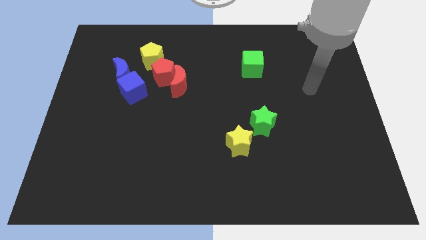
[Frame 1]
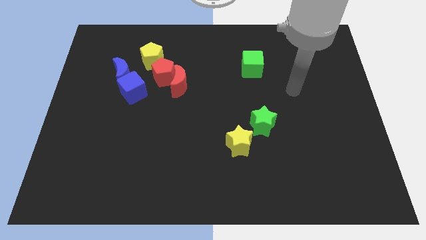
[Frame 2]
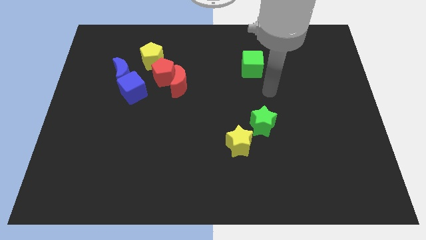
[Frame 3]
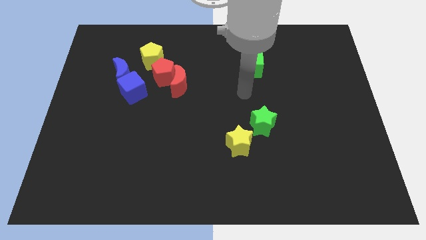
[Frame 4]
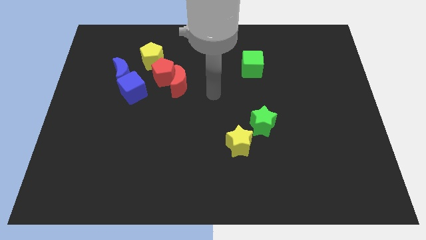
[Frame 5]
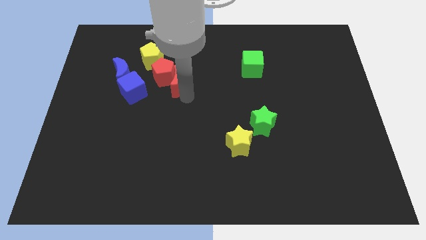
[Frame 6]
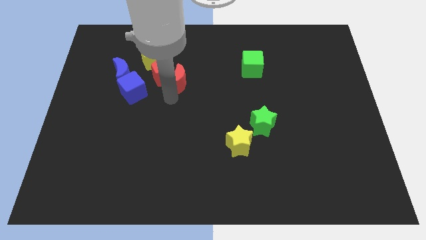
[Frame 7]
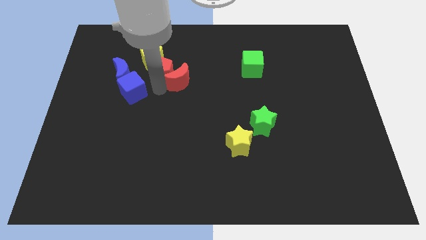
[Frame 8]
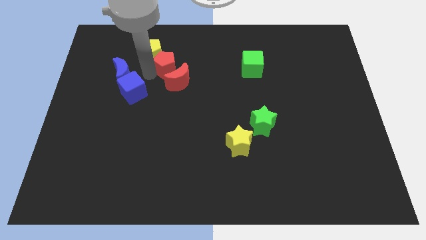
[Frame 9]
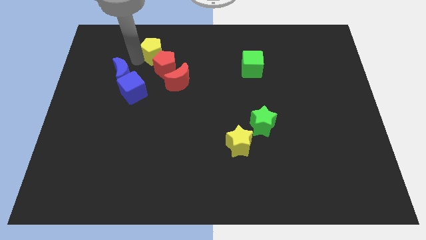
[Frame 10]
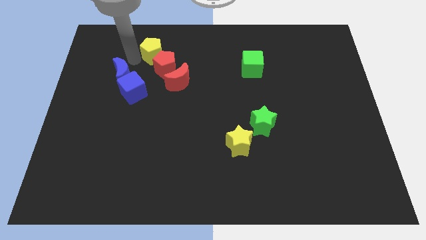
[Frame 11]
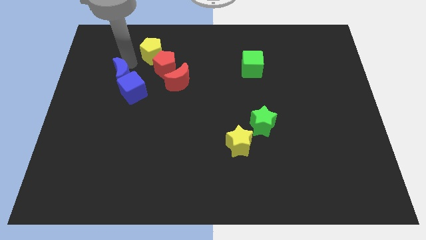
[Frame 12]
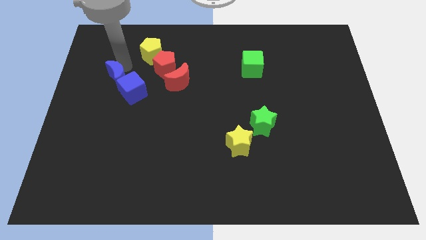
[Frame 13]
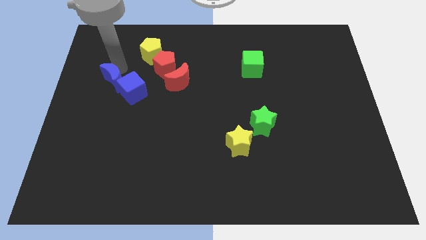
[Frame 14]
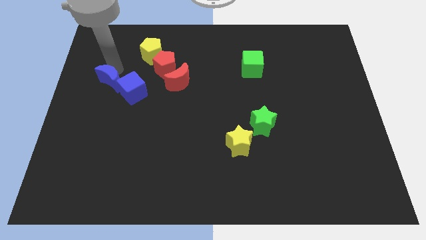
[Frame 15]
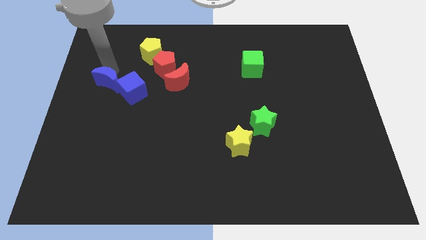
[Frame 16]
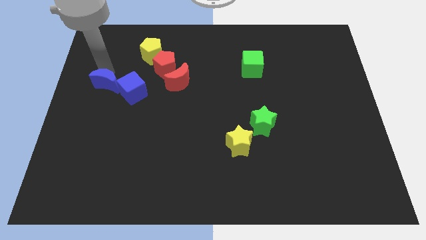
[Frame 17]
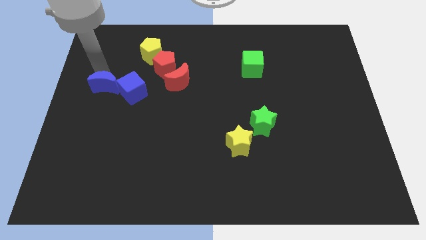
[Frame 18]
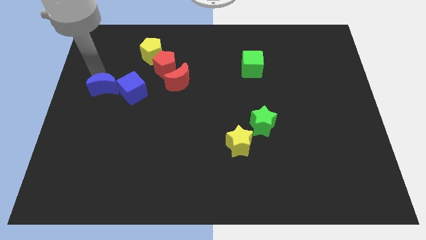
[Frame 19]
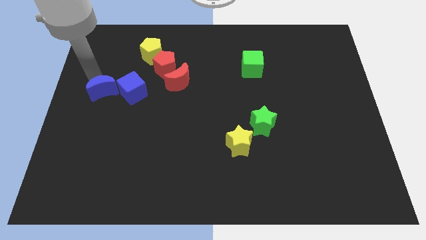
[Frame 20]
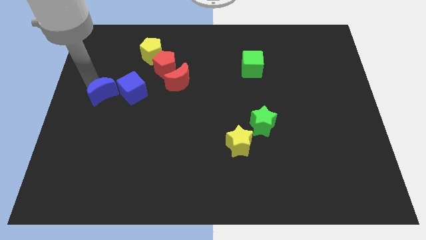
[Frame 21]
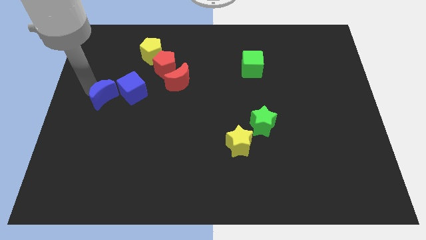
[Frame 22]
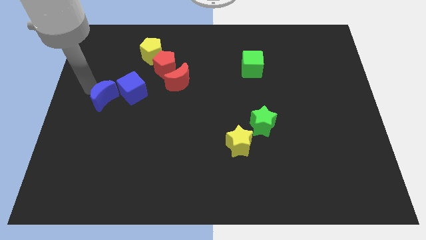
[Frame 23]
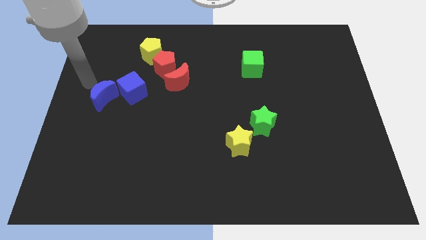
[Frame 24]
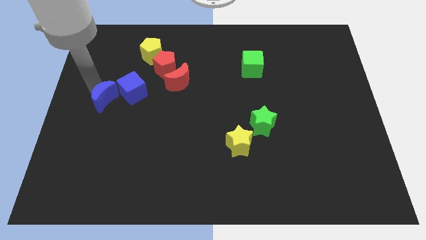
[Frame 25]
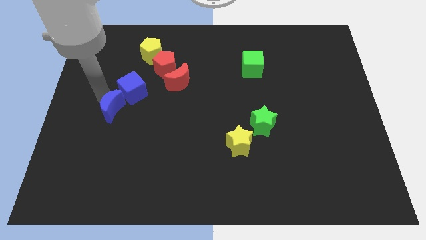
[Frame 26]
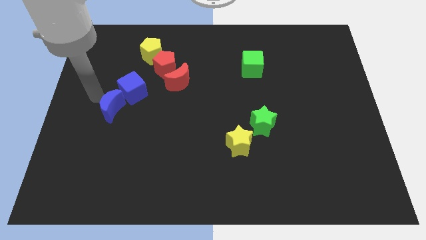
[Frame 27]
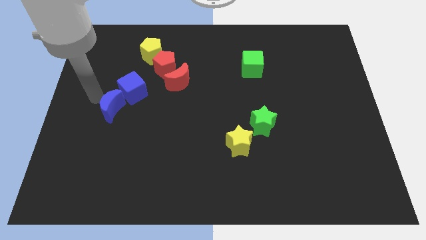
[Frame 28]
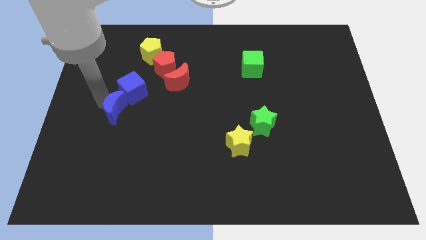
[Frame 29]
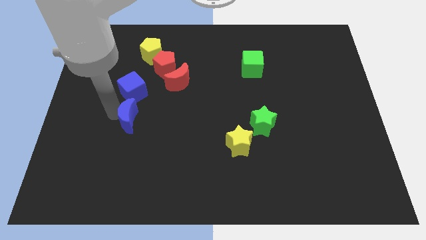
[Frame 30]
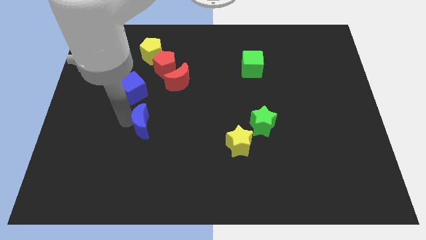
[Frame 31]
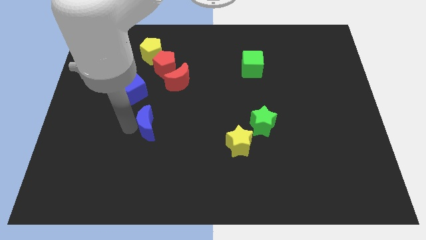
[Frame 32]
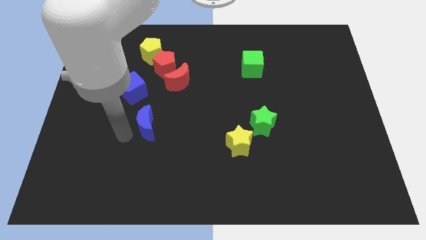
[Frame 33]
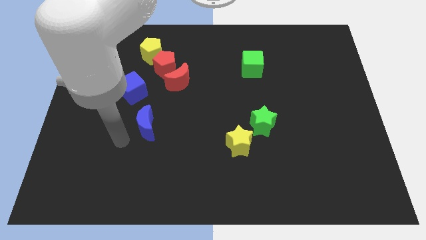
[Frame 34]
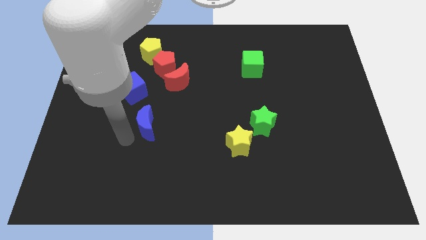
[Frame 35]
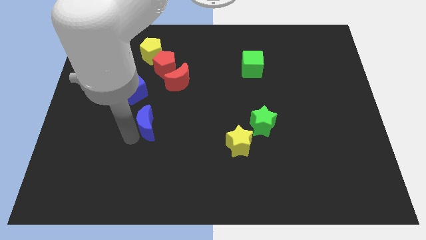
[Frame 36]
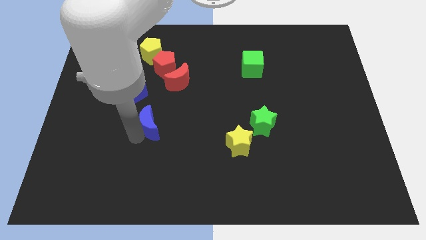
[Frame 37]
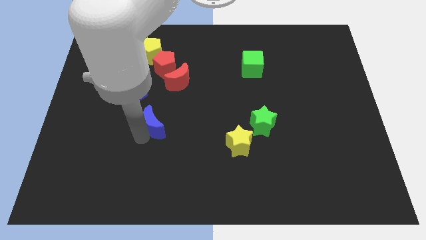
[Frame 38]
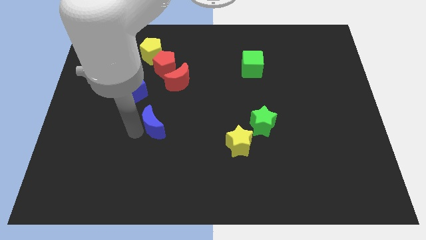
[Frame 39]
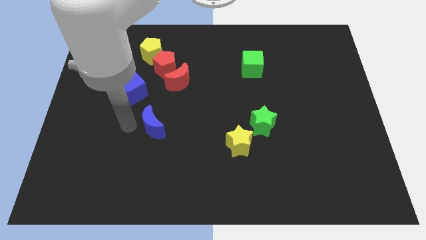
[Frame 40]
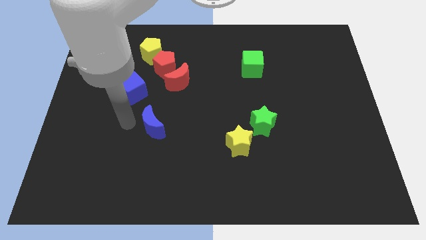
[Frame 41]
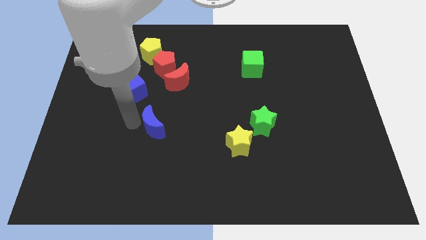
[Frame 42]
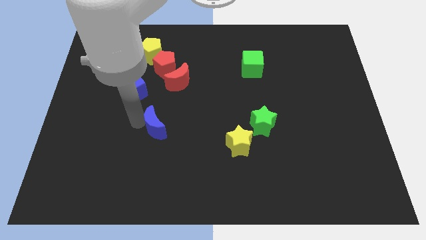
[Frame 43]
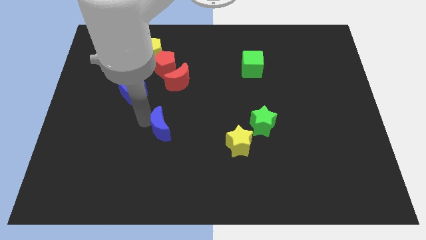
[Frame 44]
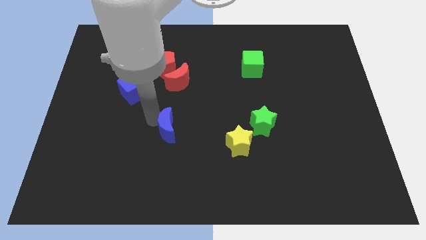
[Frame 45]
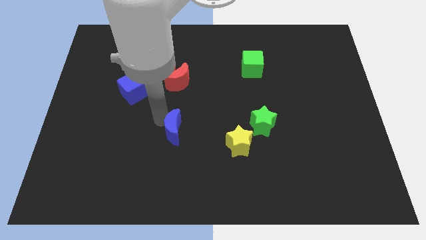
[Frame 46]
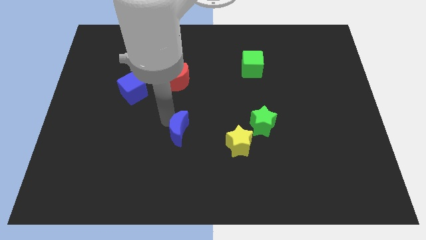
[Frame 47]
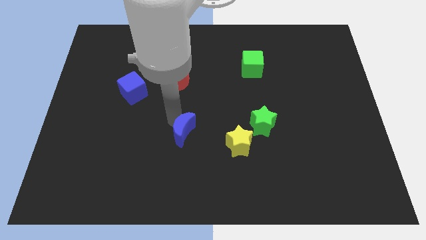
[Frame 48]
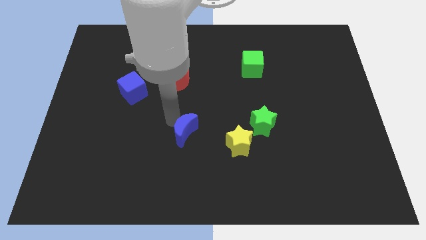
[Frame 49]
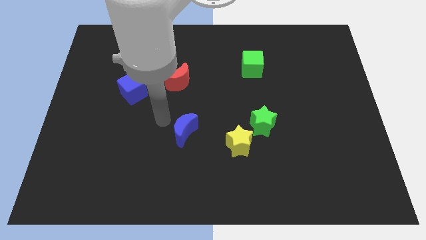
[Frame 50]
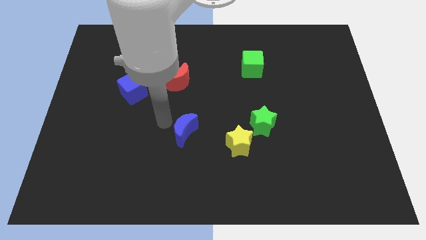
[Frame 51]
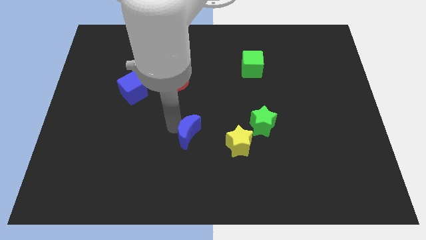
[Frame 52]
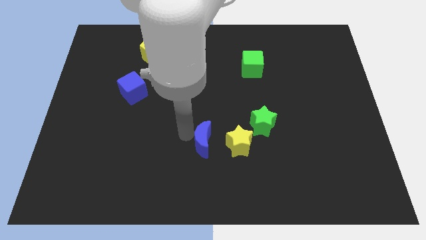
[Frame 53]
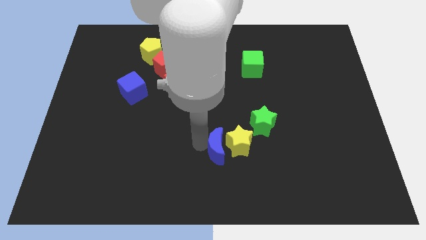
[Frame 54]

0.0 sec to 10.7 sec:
put the blue moon next to the yellow star

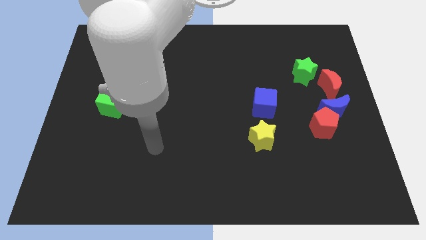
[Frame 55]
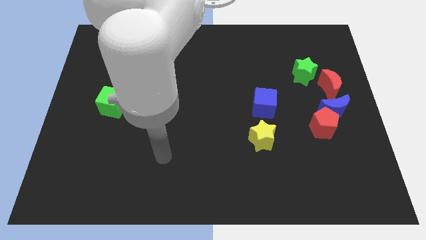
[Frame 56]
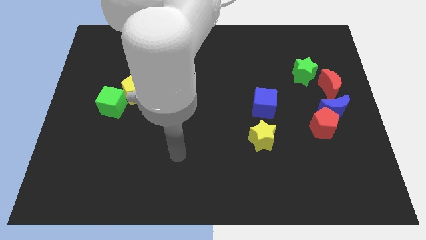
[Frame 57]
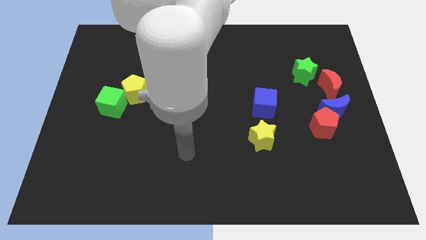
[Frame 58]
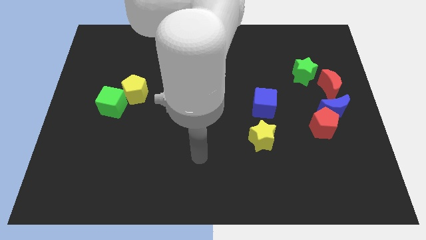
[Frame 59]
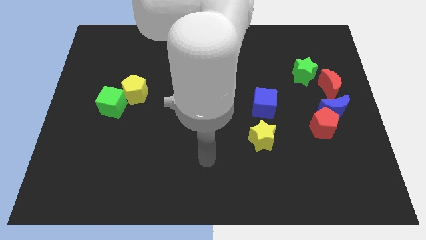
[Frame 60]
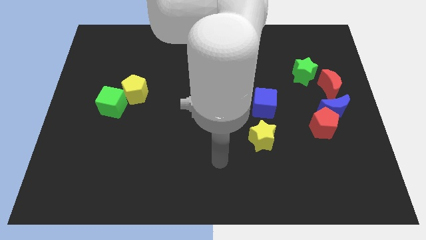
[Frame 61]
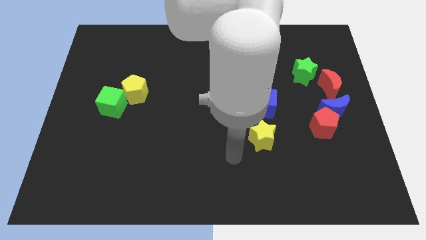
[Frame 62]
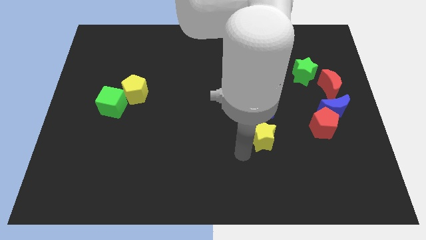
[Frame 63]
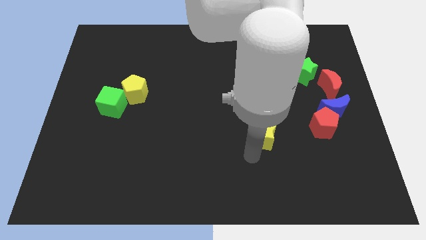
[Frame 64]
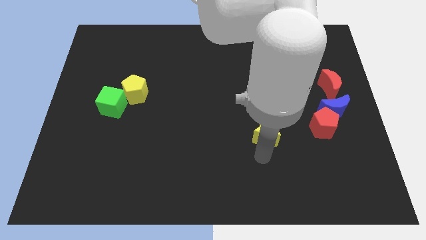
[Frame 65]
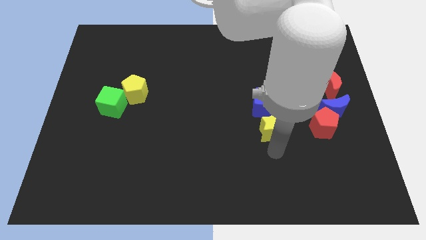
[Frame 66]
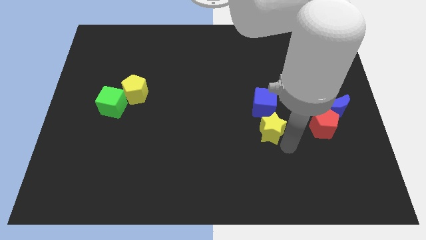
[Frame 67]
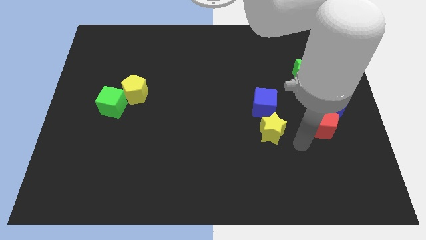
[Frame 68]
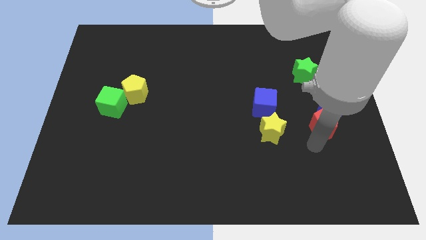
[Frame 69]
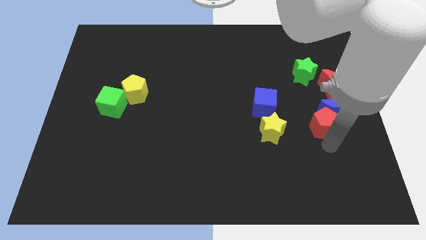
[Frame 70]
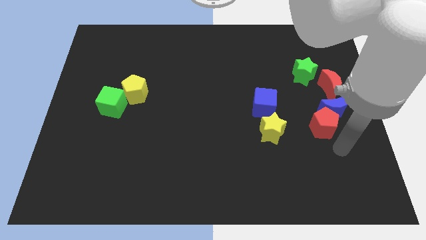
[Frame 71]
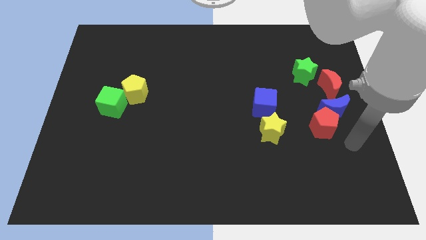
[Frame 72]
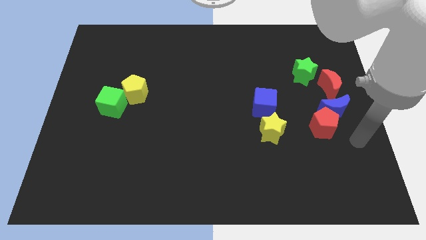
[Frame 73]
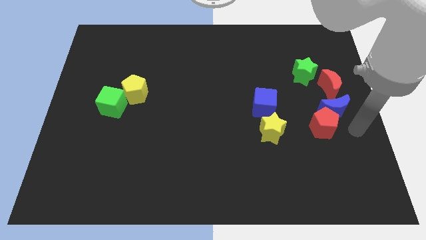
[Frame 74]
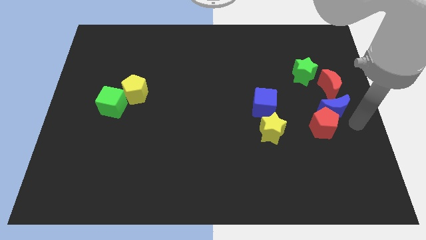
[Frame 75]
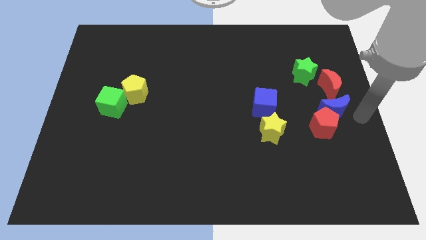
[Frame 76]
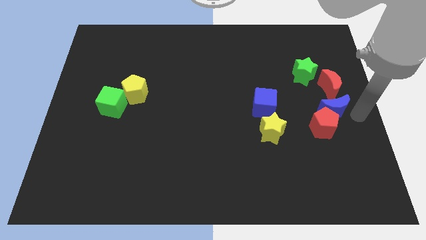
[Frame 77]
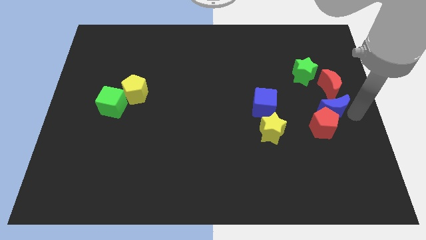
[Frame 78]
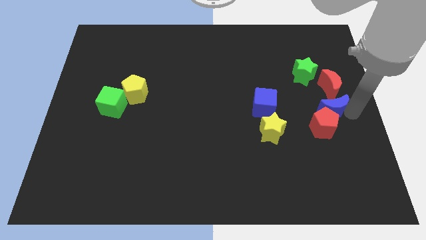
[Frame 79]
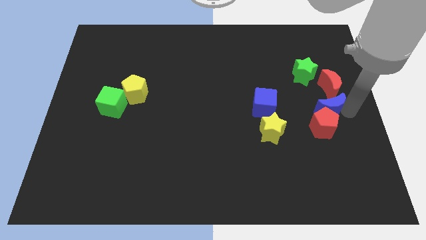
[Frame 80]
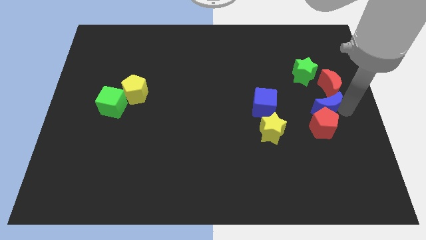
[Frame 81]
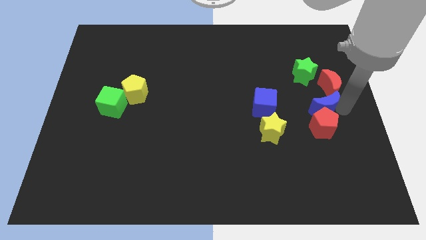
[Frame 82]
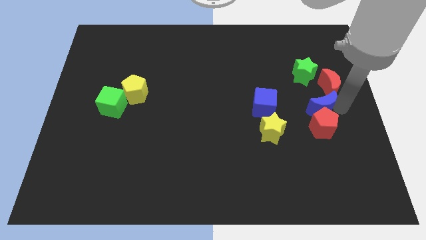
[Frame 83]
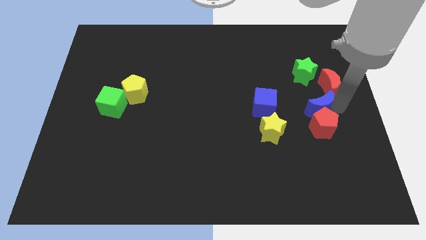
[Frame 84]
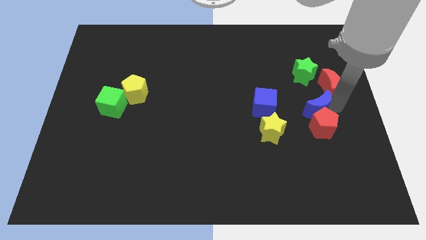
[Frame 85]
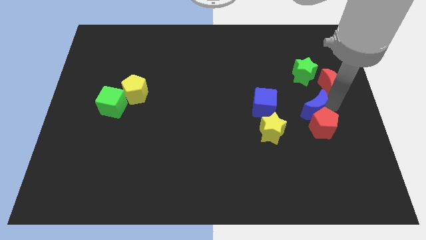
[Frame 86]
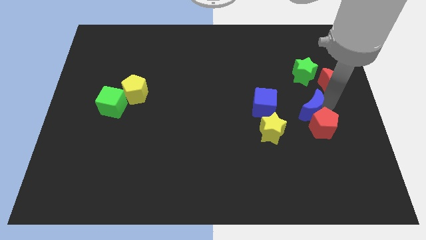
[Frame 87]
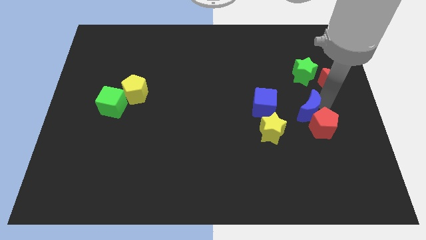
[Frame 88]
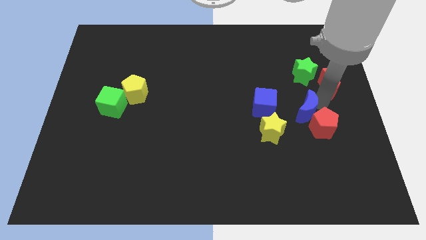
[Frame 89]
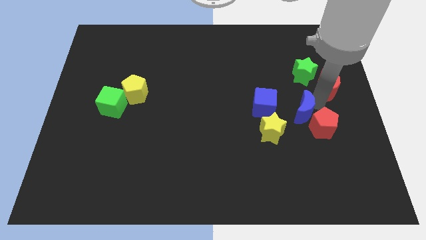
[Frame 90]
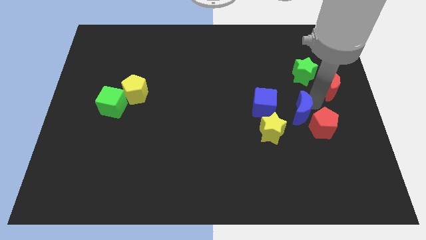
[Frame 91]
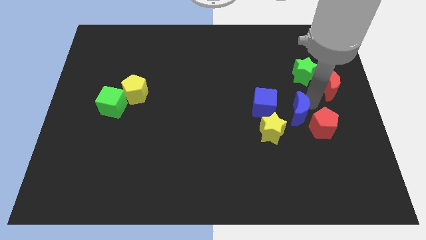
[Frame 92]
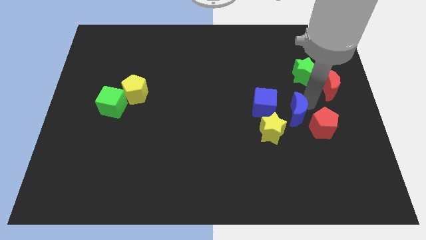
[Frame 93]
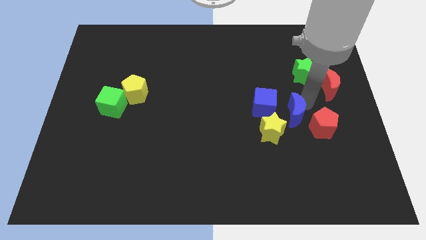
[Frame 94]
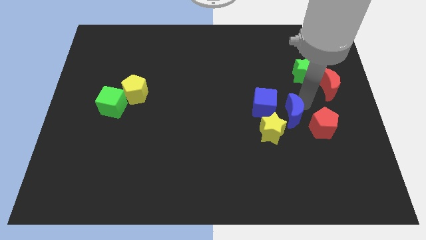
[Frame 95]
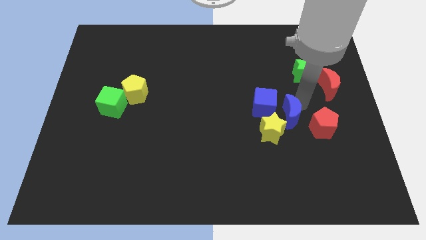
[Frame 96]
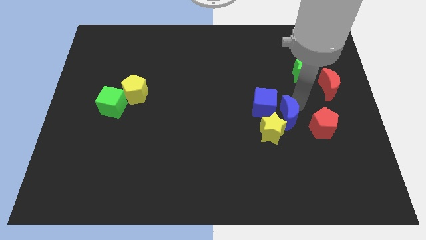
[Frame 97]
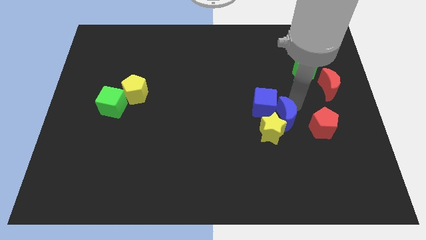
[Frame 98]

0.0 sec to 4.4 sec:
put the blue moon towards the yellow star
